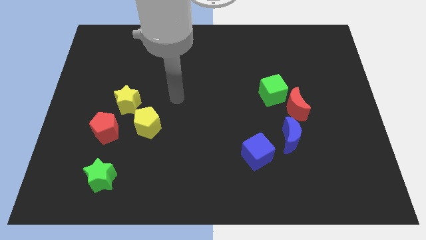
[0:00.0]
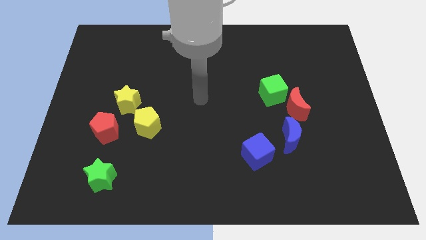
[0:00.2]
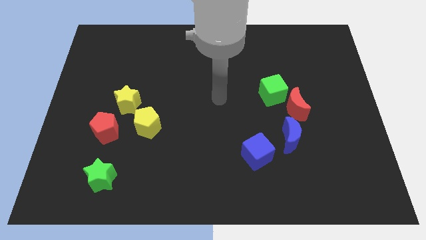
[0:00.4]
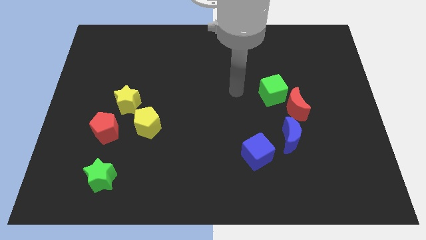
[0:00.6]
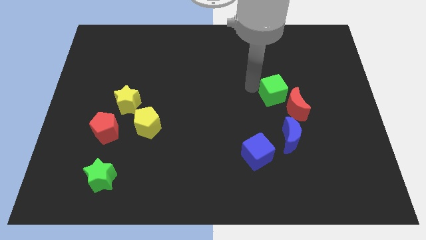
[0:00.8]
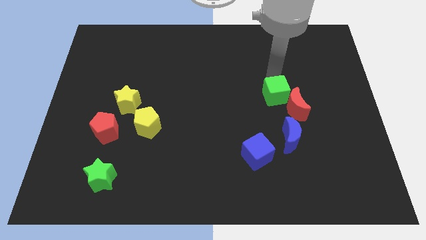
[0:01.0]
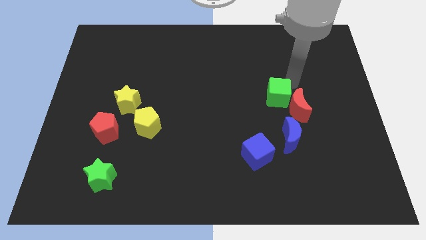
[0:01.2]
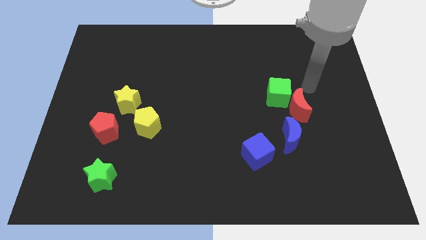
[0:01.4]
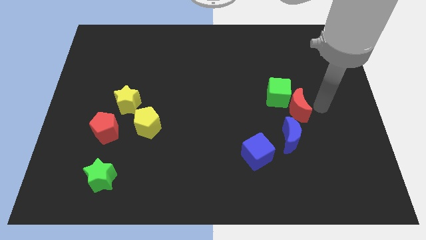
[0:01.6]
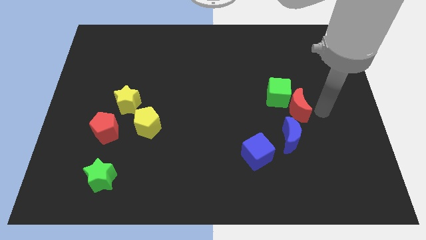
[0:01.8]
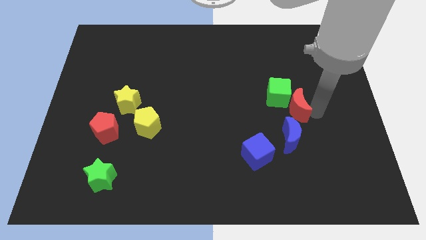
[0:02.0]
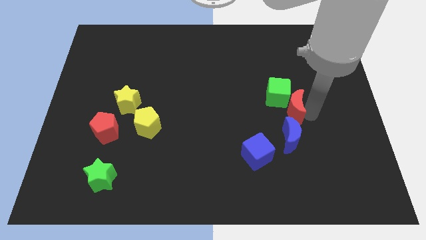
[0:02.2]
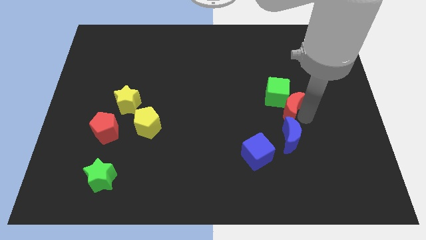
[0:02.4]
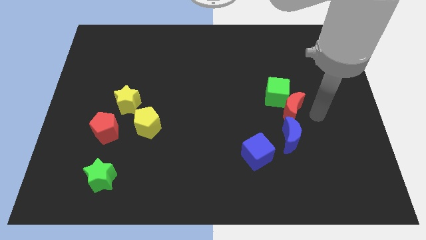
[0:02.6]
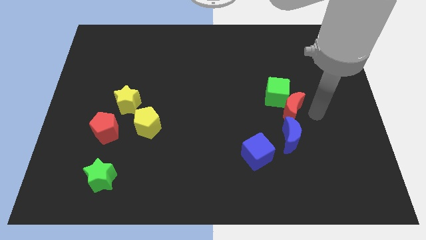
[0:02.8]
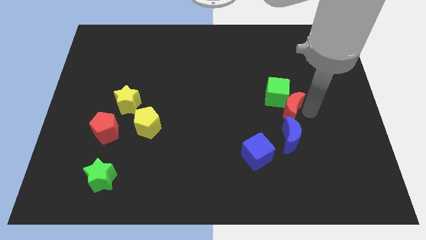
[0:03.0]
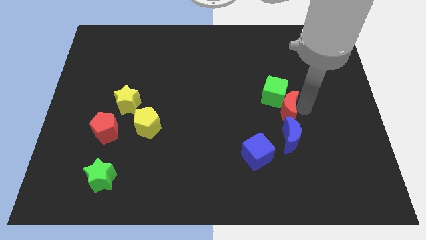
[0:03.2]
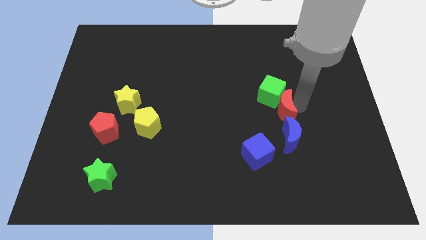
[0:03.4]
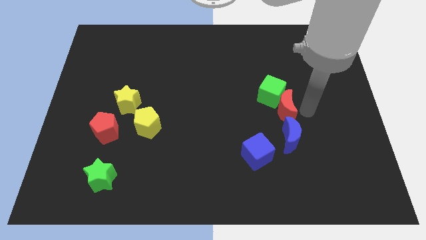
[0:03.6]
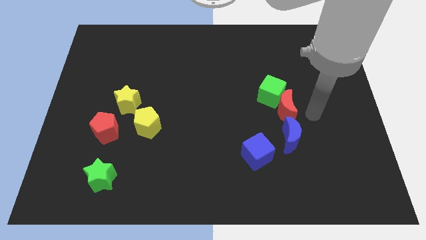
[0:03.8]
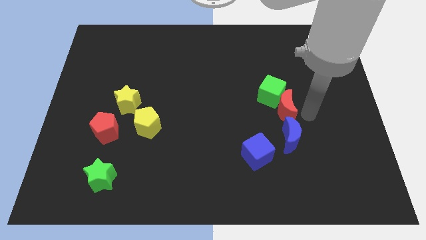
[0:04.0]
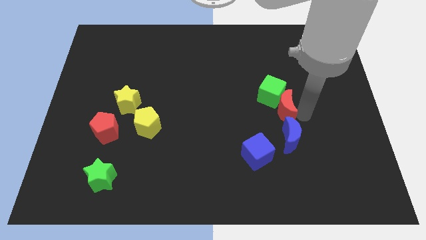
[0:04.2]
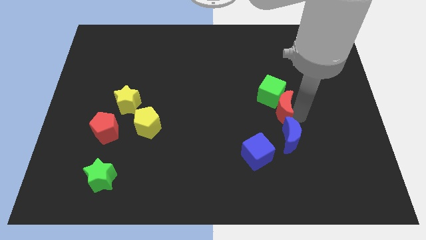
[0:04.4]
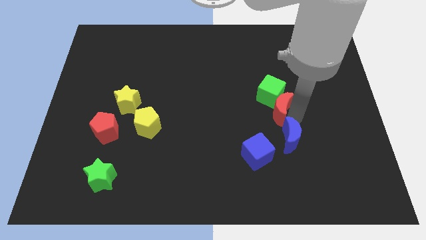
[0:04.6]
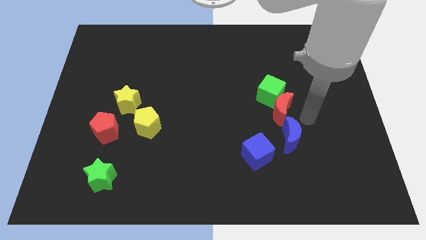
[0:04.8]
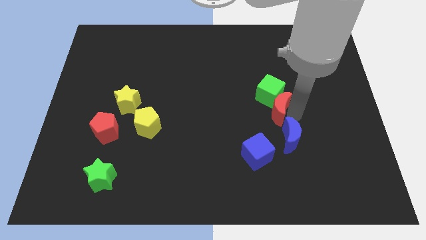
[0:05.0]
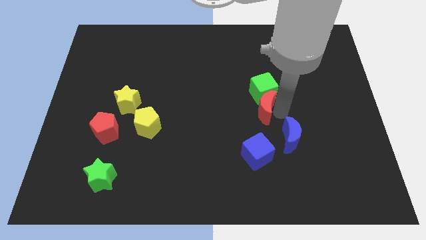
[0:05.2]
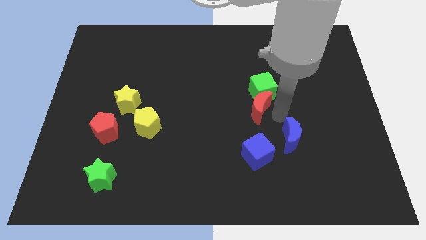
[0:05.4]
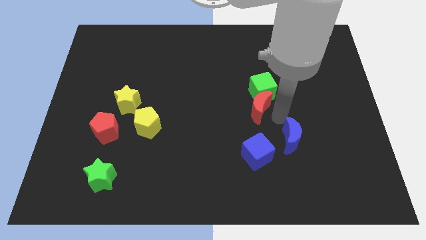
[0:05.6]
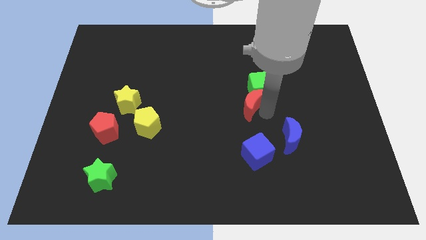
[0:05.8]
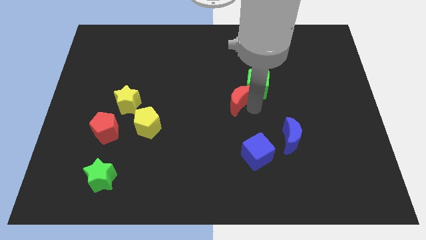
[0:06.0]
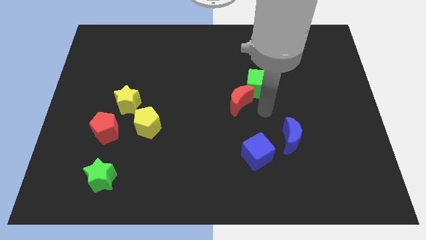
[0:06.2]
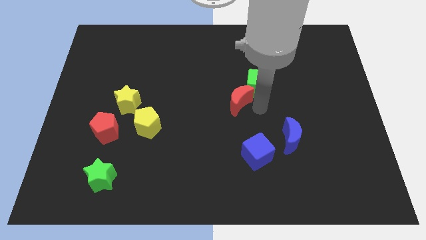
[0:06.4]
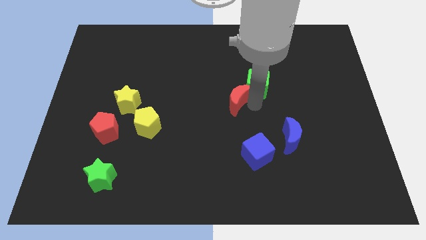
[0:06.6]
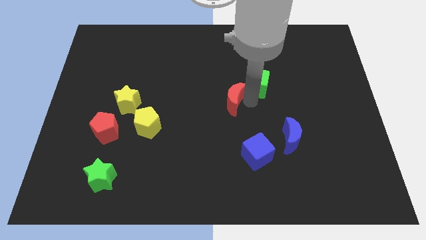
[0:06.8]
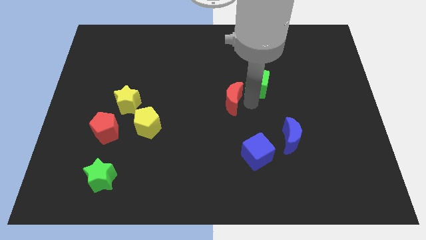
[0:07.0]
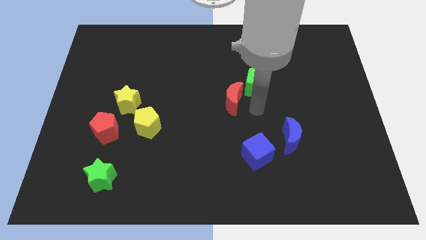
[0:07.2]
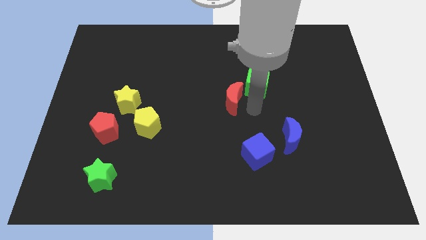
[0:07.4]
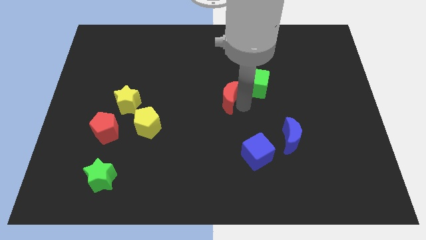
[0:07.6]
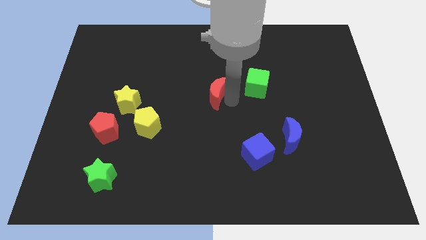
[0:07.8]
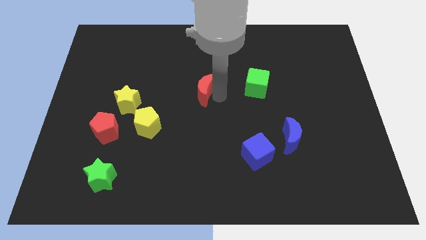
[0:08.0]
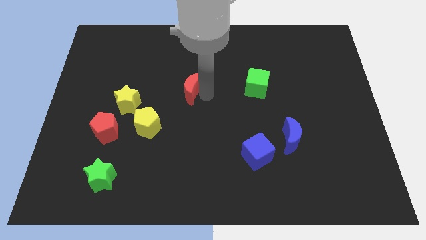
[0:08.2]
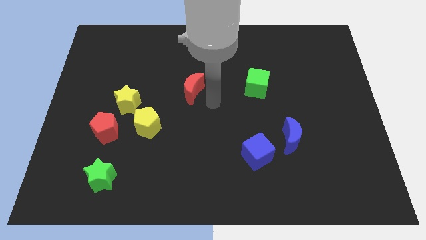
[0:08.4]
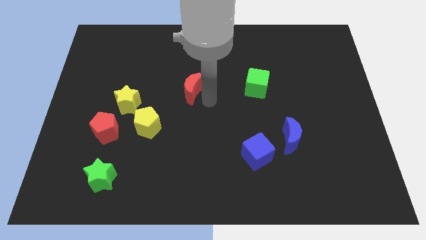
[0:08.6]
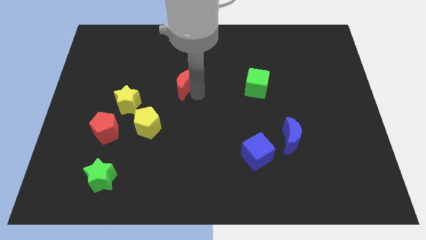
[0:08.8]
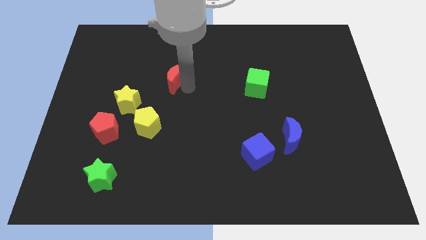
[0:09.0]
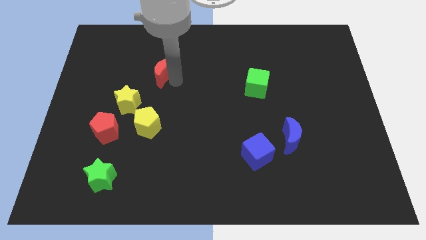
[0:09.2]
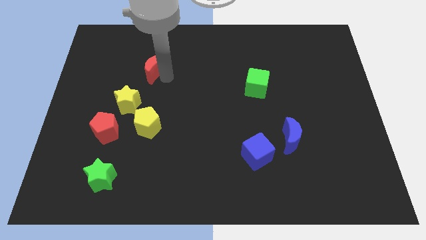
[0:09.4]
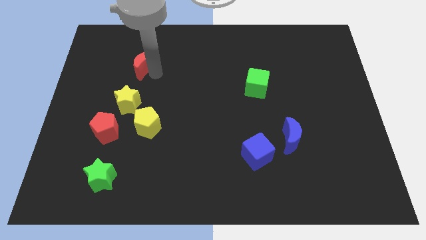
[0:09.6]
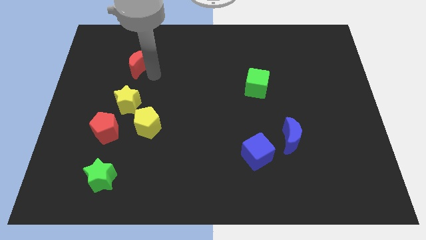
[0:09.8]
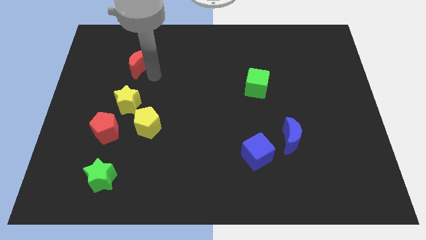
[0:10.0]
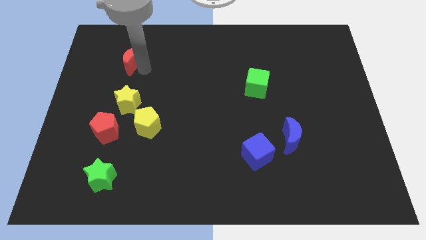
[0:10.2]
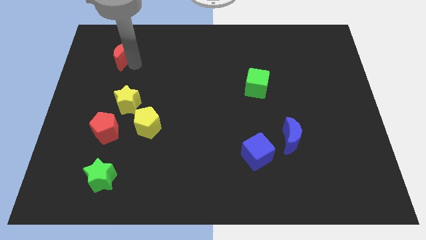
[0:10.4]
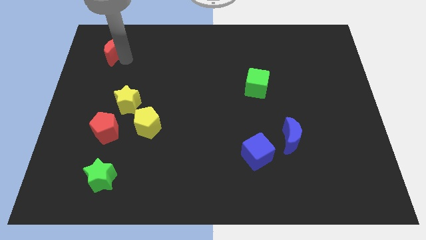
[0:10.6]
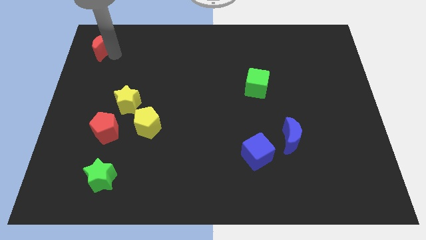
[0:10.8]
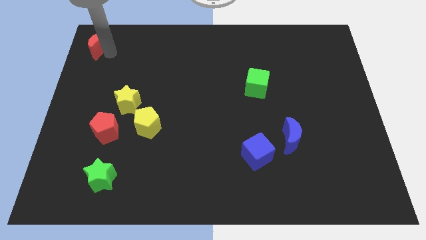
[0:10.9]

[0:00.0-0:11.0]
slide the red moon to the upper left corner

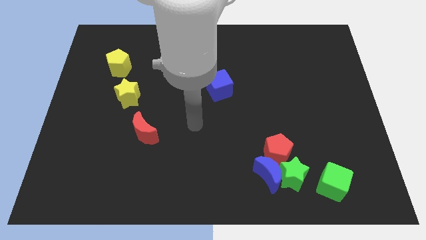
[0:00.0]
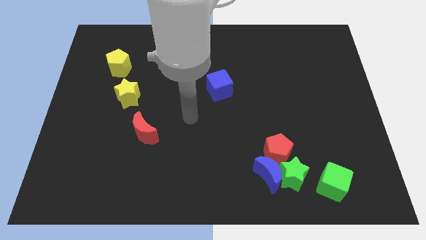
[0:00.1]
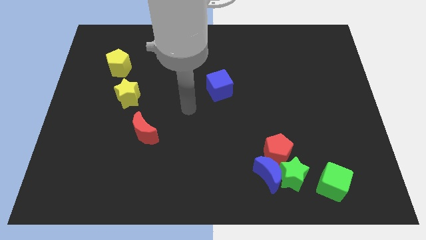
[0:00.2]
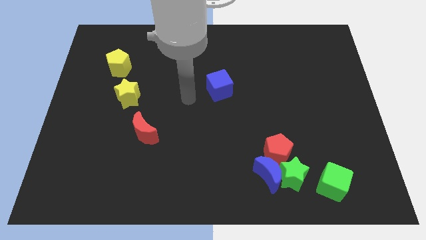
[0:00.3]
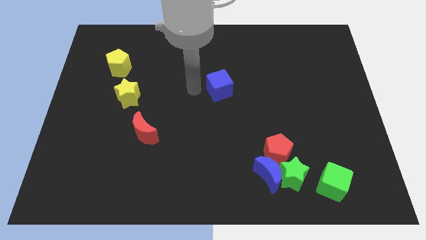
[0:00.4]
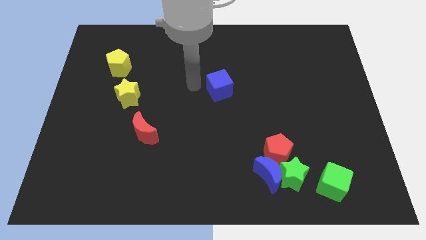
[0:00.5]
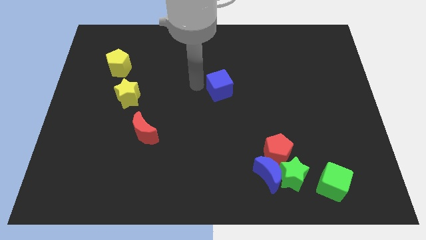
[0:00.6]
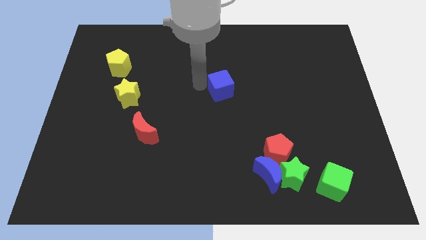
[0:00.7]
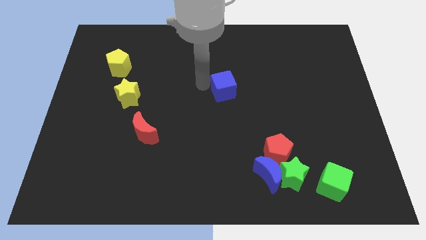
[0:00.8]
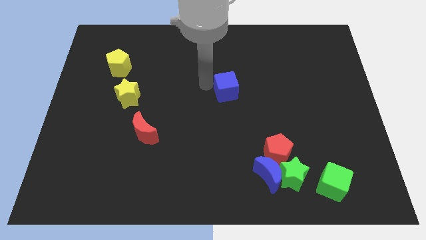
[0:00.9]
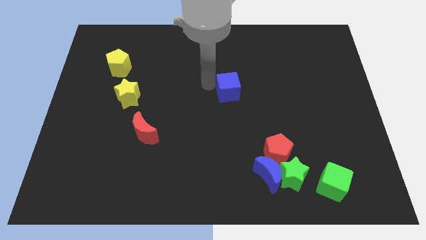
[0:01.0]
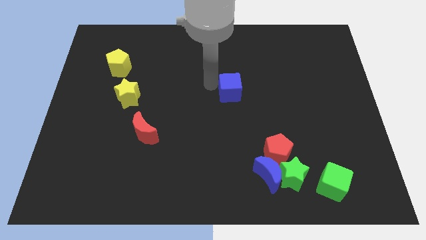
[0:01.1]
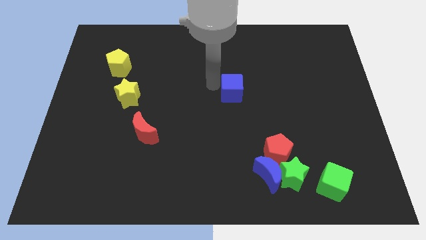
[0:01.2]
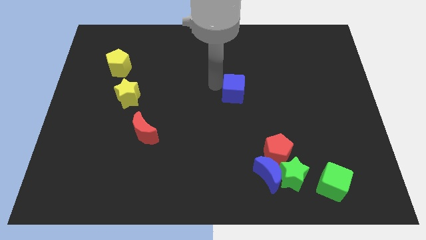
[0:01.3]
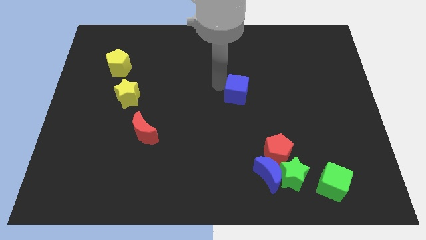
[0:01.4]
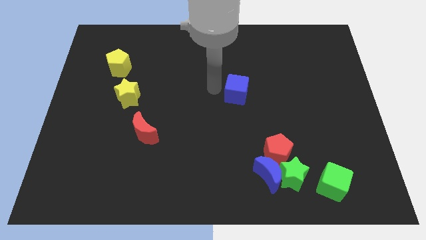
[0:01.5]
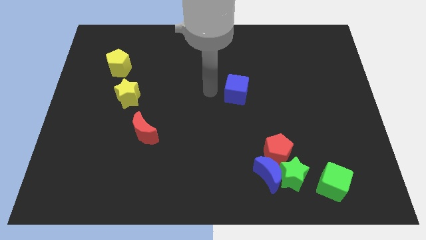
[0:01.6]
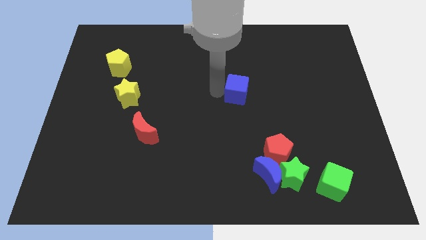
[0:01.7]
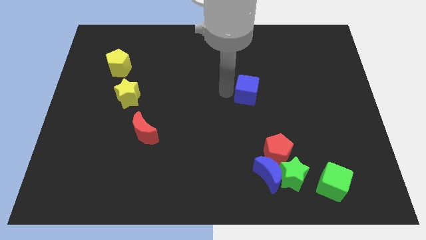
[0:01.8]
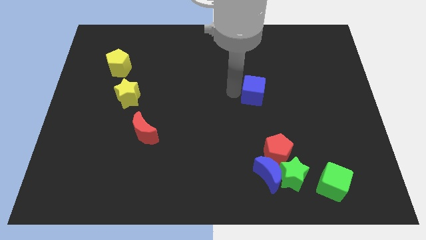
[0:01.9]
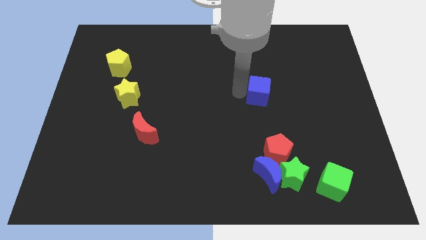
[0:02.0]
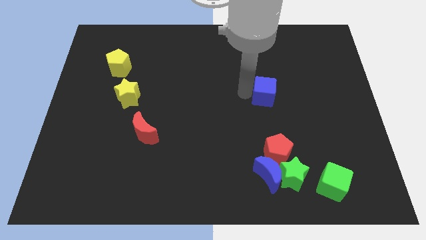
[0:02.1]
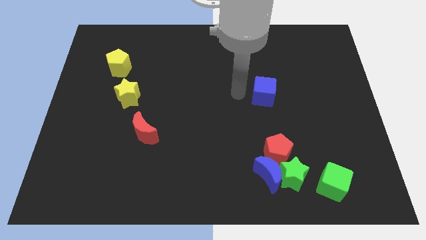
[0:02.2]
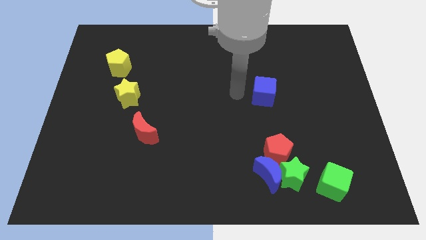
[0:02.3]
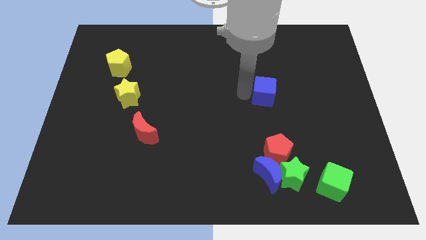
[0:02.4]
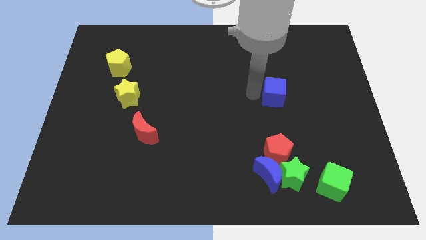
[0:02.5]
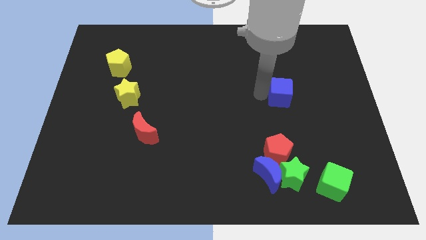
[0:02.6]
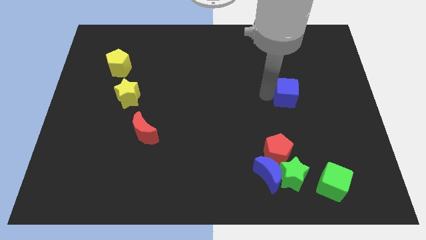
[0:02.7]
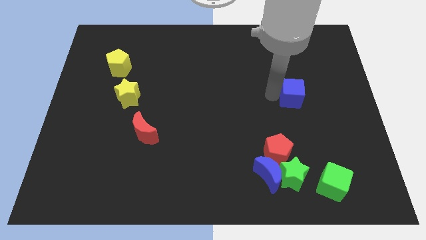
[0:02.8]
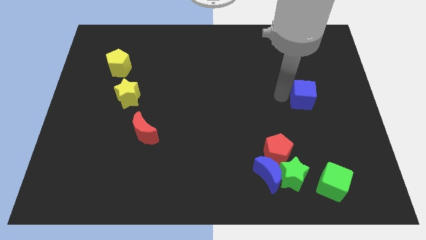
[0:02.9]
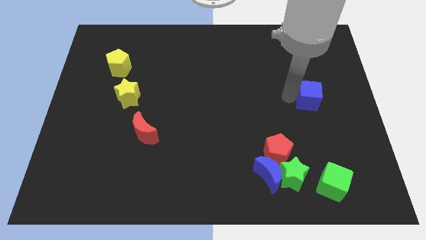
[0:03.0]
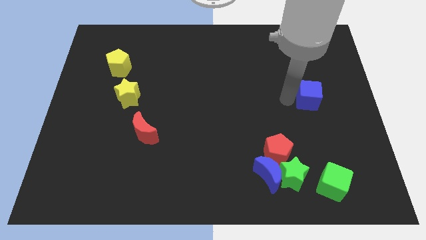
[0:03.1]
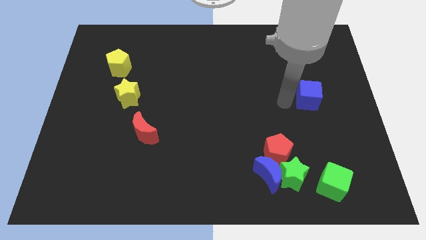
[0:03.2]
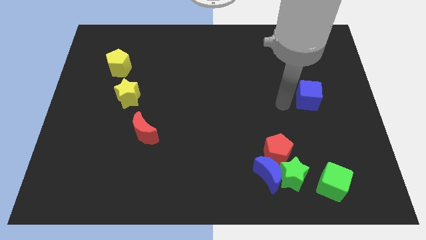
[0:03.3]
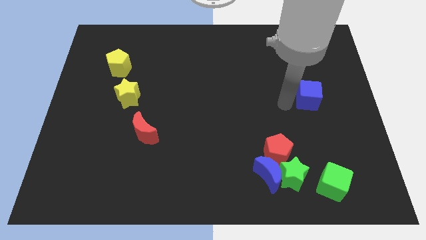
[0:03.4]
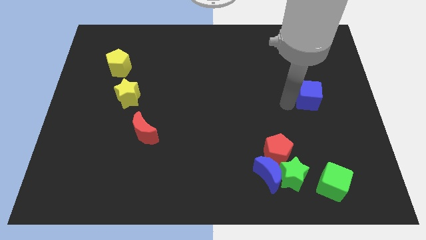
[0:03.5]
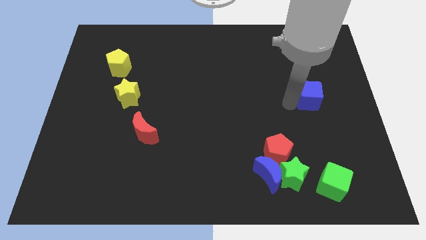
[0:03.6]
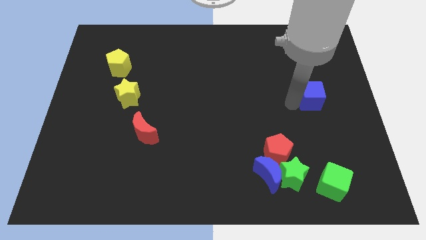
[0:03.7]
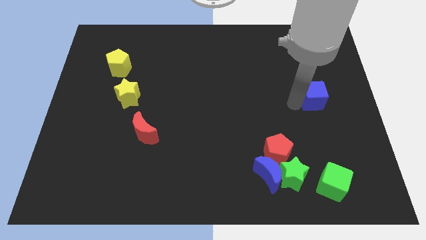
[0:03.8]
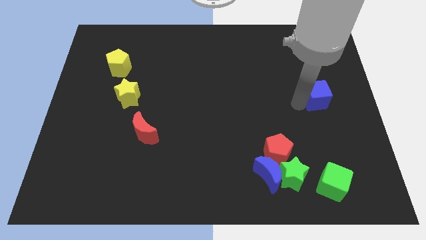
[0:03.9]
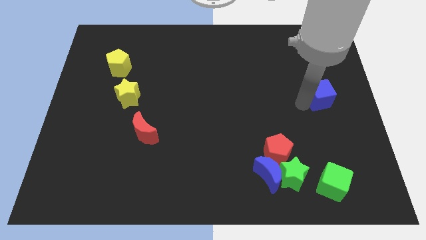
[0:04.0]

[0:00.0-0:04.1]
push the blue cube to the center right
